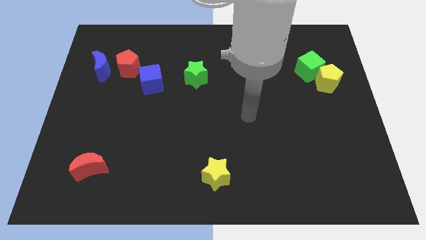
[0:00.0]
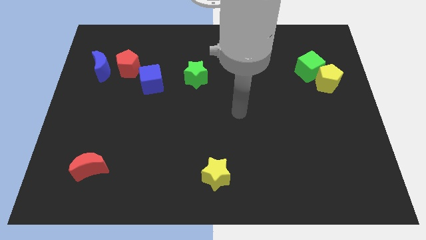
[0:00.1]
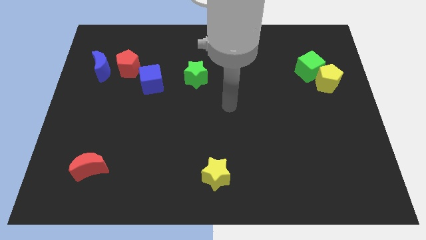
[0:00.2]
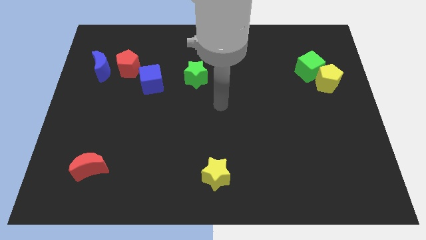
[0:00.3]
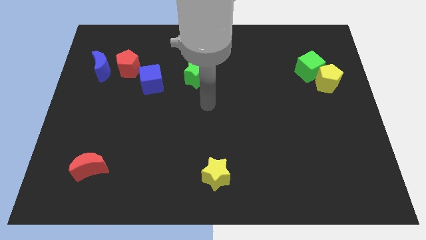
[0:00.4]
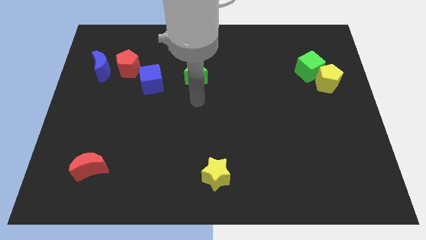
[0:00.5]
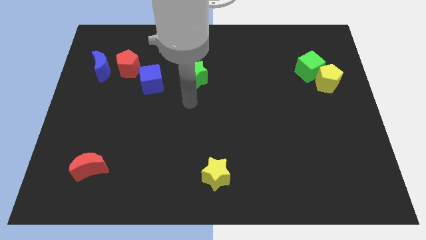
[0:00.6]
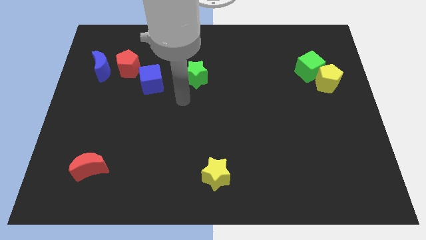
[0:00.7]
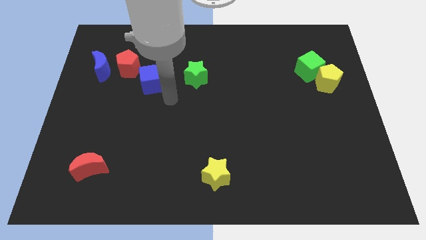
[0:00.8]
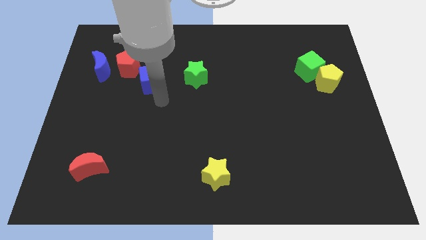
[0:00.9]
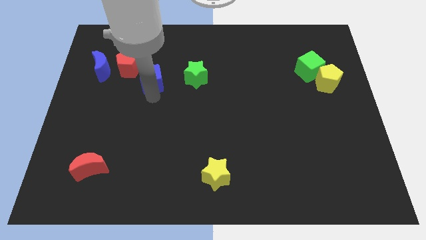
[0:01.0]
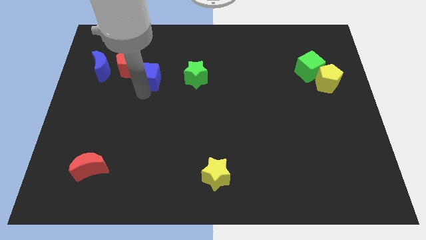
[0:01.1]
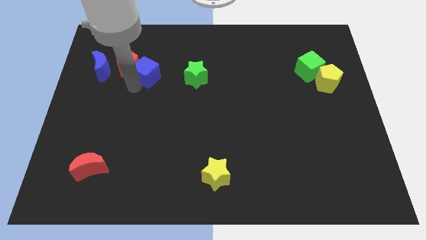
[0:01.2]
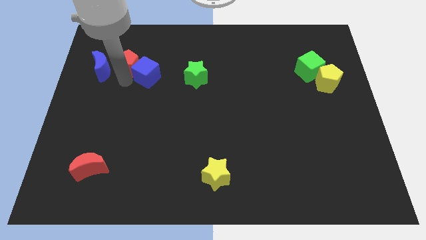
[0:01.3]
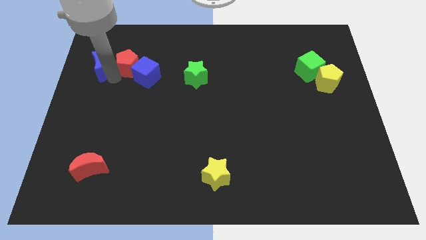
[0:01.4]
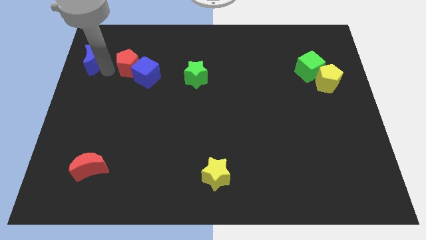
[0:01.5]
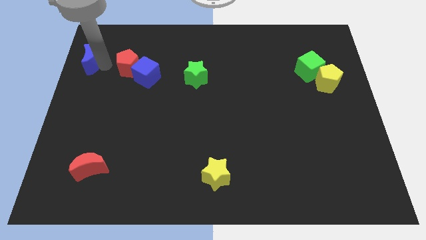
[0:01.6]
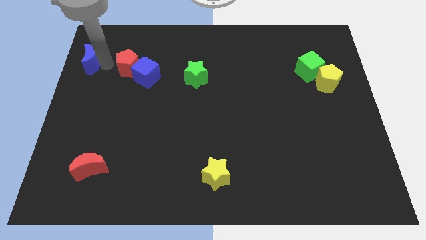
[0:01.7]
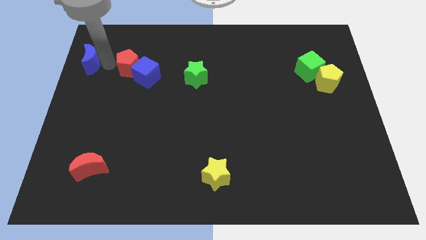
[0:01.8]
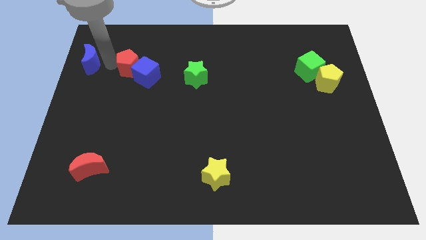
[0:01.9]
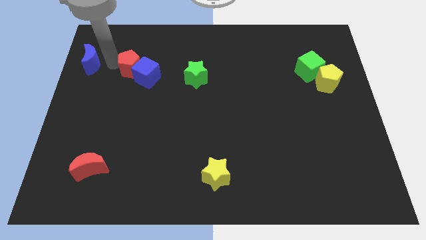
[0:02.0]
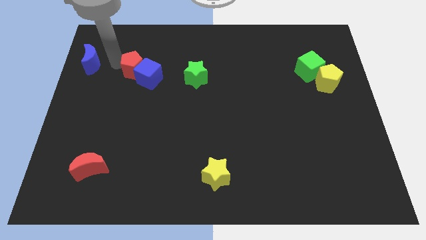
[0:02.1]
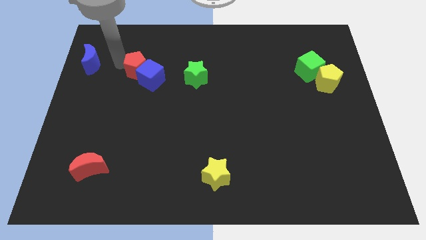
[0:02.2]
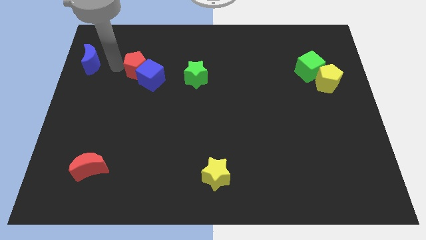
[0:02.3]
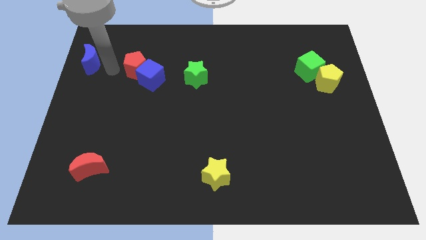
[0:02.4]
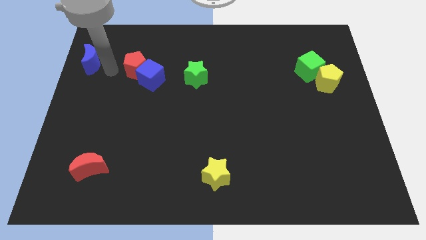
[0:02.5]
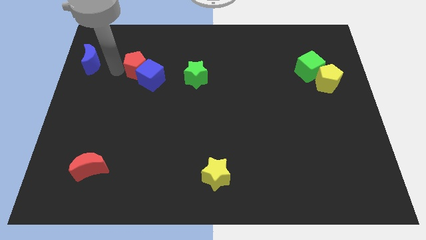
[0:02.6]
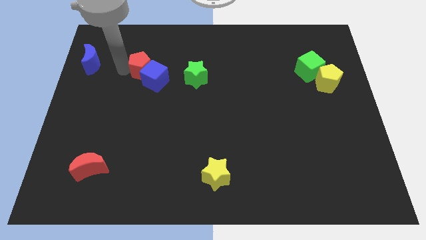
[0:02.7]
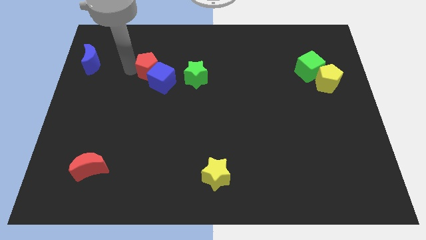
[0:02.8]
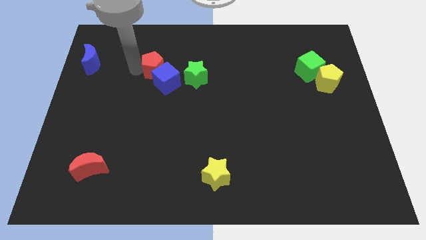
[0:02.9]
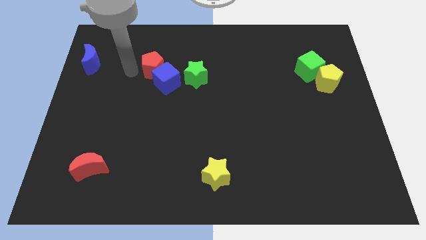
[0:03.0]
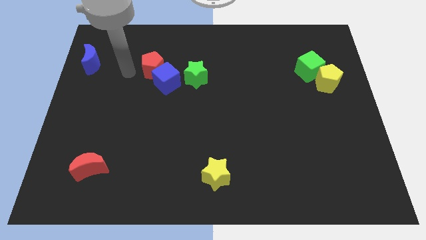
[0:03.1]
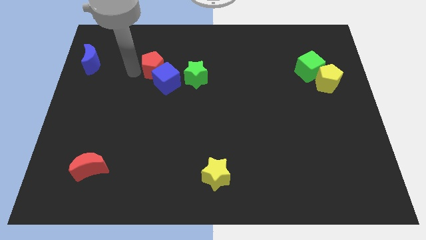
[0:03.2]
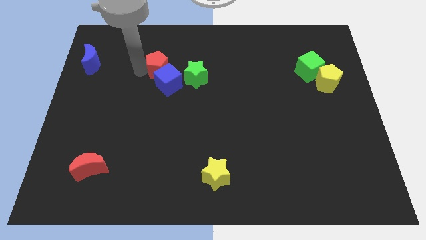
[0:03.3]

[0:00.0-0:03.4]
slightly move the red pentagon right

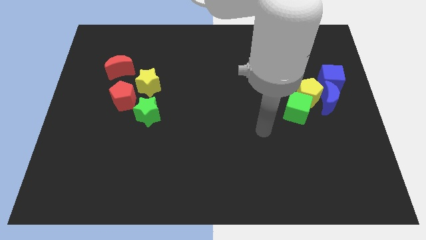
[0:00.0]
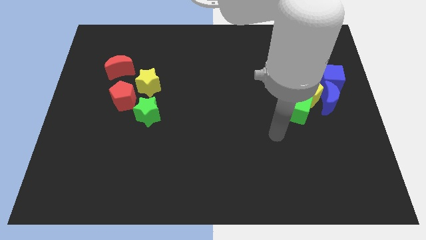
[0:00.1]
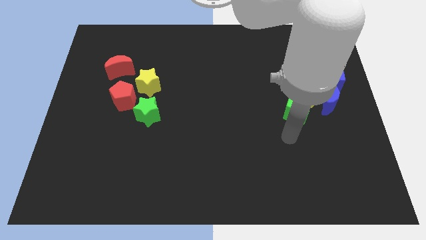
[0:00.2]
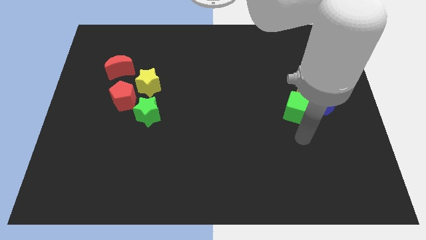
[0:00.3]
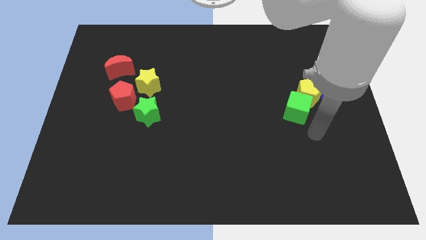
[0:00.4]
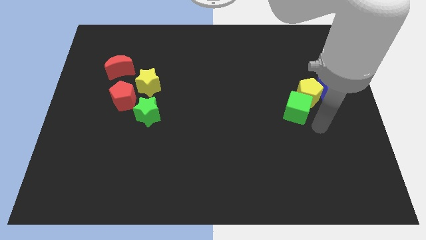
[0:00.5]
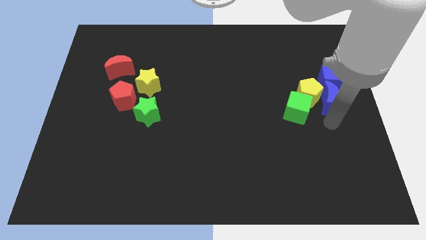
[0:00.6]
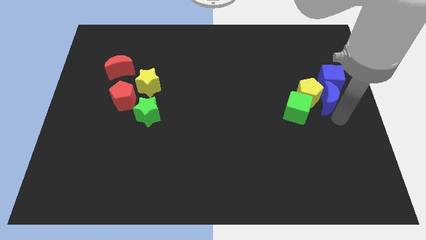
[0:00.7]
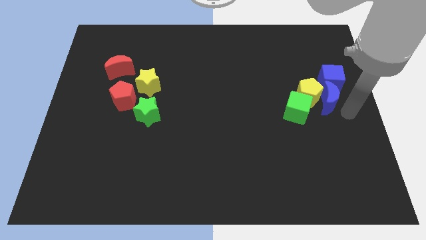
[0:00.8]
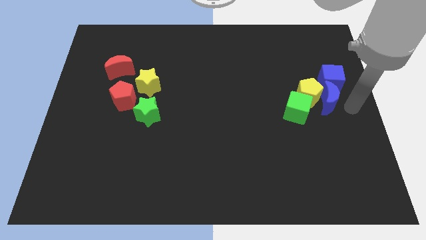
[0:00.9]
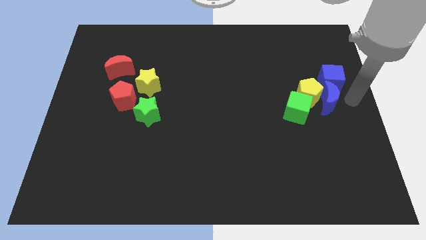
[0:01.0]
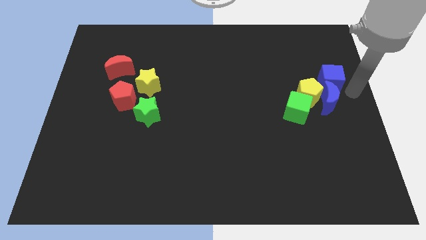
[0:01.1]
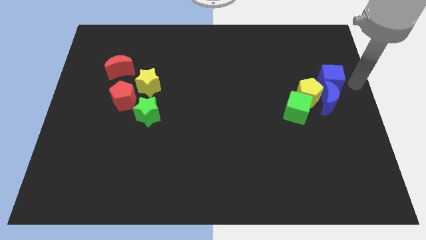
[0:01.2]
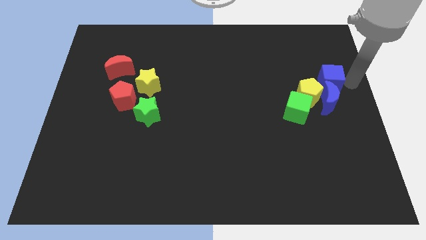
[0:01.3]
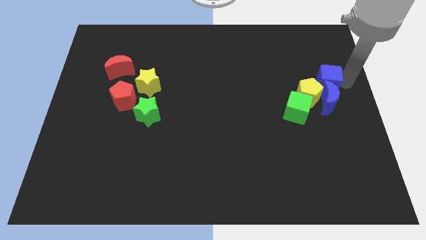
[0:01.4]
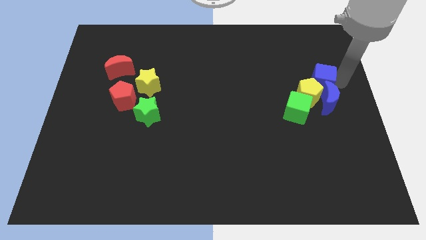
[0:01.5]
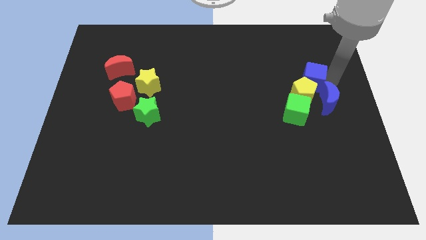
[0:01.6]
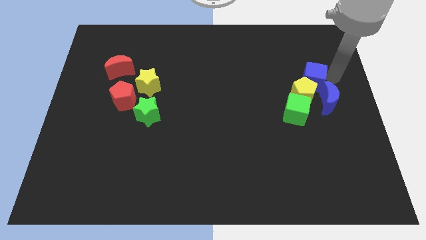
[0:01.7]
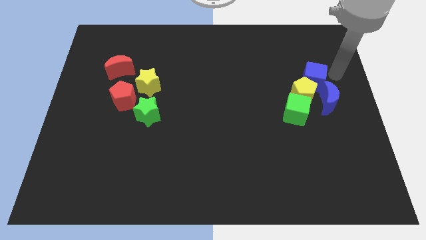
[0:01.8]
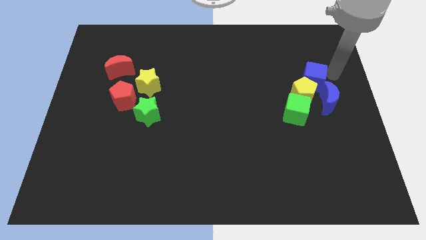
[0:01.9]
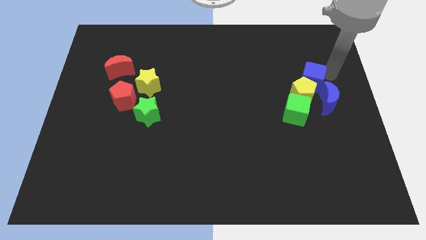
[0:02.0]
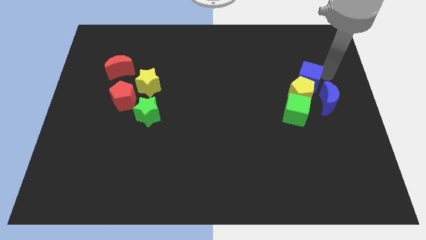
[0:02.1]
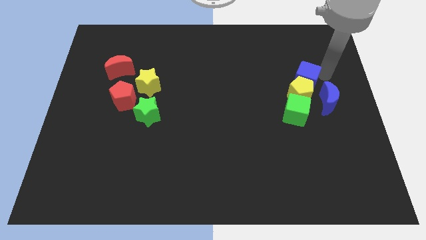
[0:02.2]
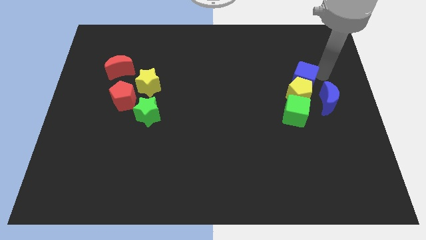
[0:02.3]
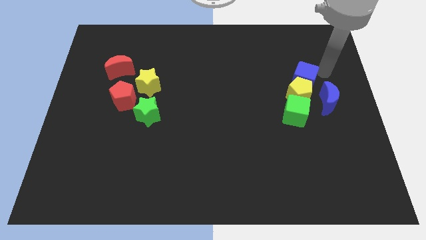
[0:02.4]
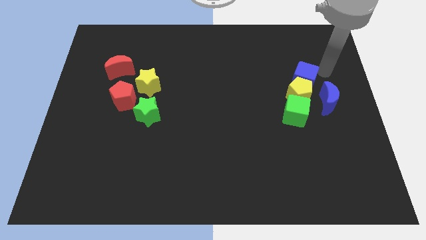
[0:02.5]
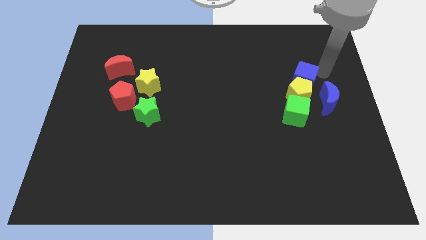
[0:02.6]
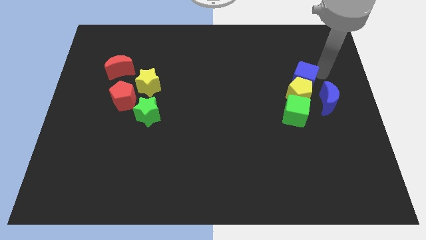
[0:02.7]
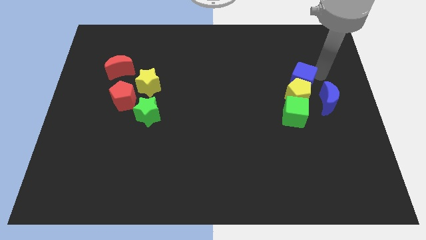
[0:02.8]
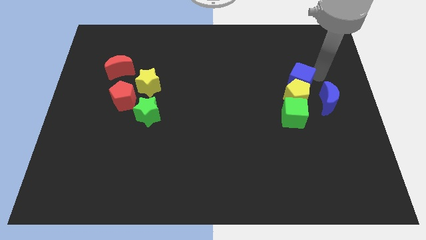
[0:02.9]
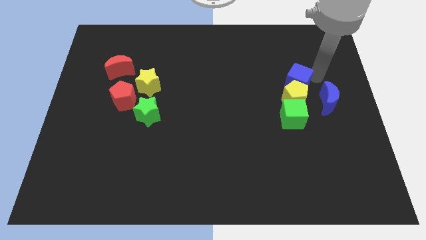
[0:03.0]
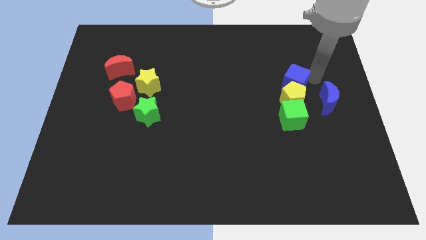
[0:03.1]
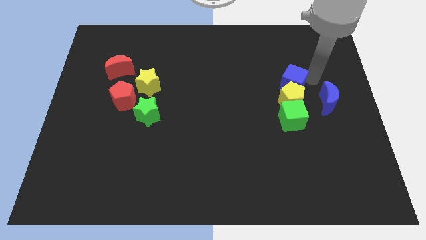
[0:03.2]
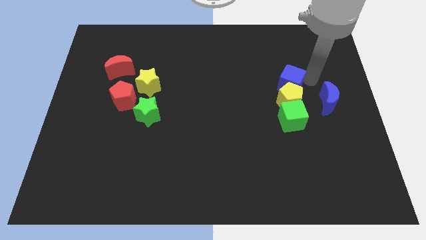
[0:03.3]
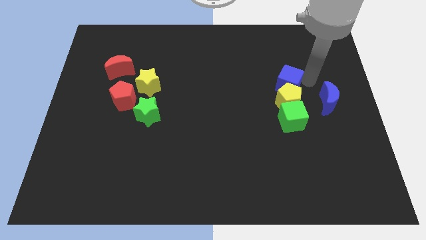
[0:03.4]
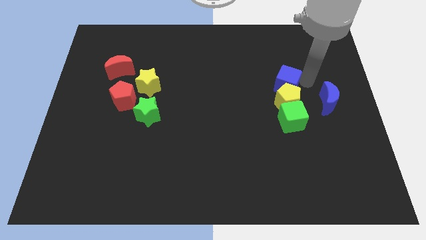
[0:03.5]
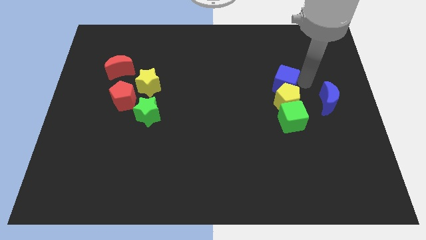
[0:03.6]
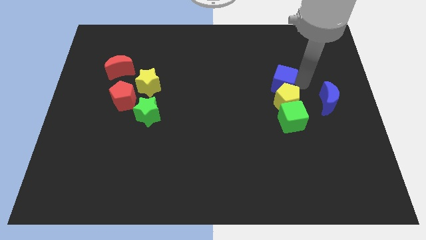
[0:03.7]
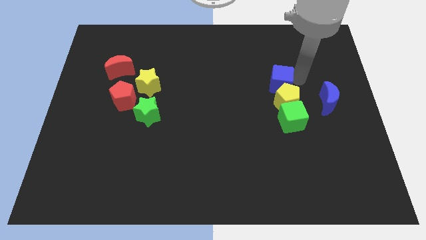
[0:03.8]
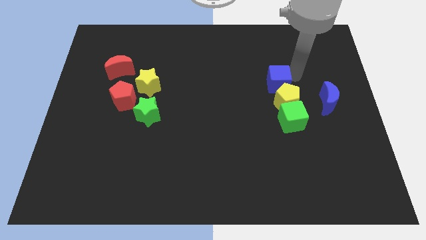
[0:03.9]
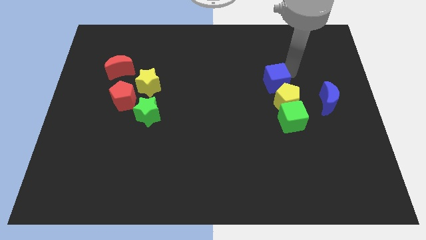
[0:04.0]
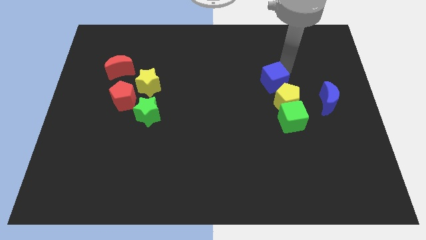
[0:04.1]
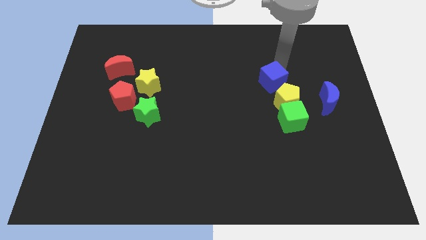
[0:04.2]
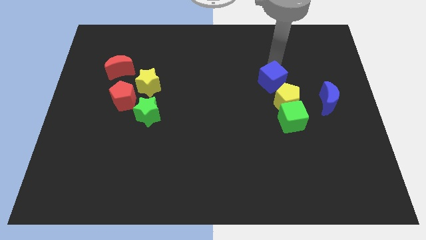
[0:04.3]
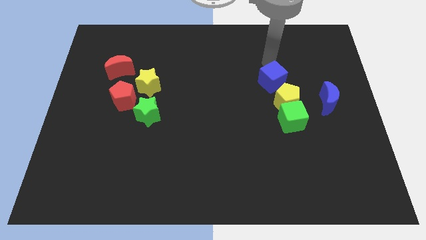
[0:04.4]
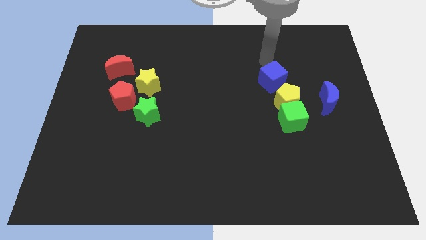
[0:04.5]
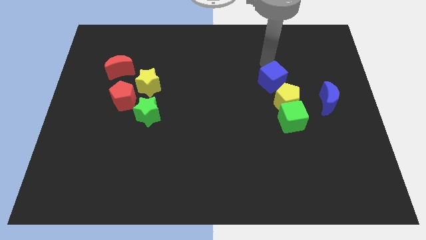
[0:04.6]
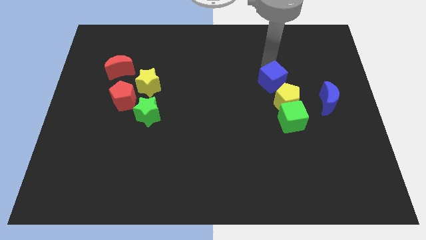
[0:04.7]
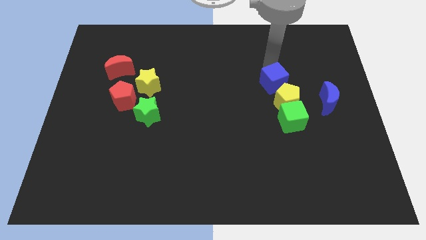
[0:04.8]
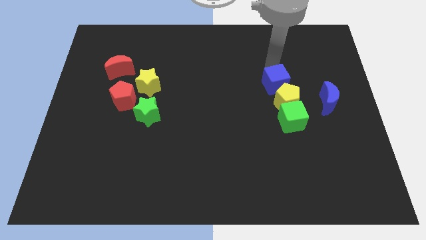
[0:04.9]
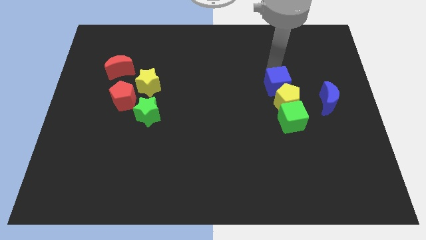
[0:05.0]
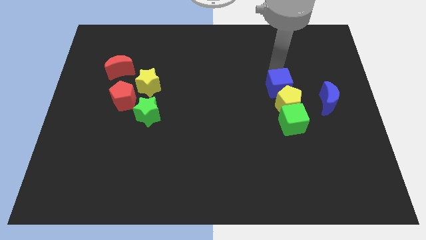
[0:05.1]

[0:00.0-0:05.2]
slightly move the blue cube diagonally downwards and to the left
